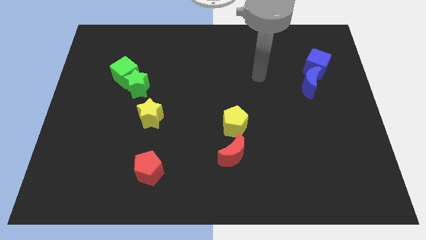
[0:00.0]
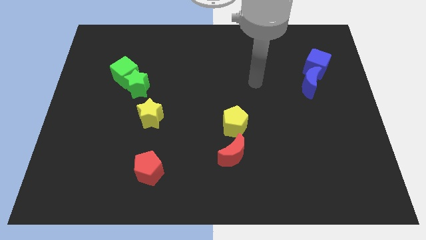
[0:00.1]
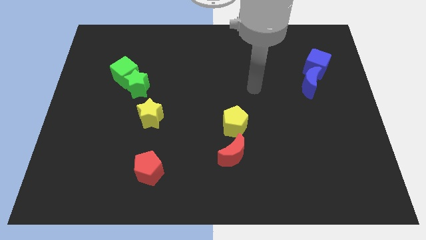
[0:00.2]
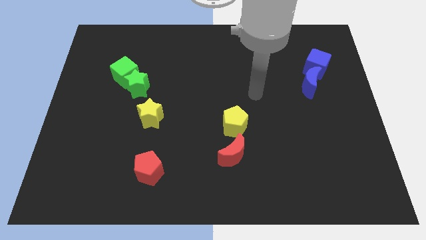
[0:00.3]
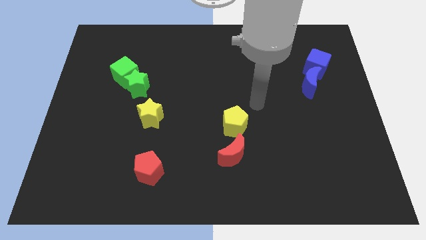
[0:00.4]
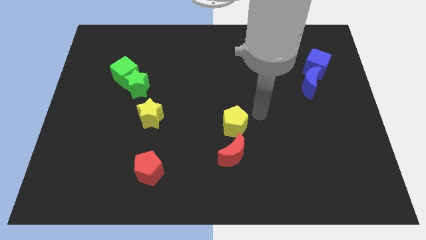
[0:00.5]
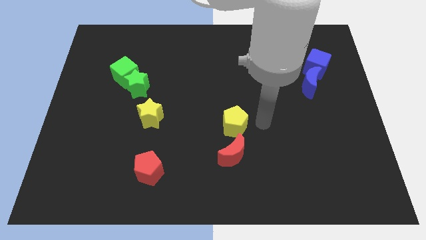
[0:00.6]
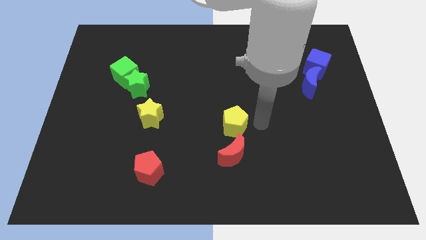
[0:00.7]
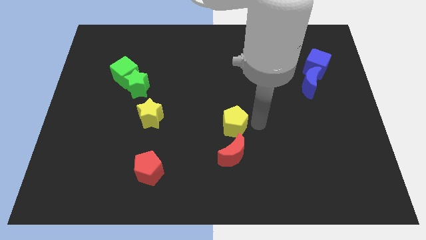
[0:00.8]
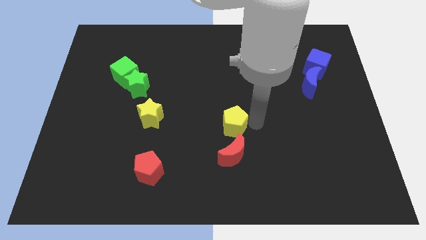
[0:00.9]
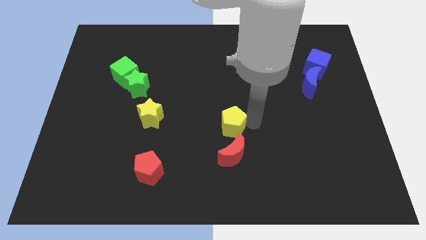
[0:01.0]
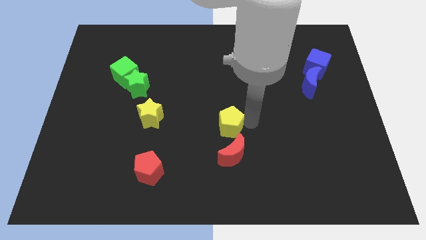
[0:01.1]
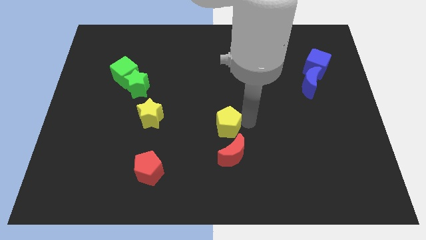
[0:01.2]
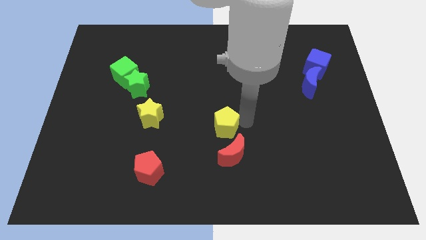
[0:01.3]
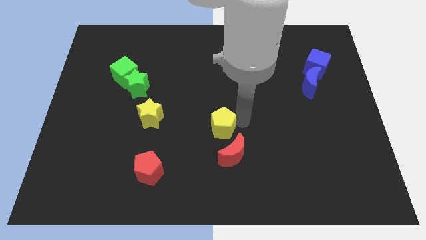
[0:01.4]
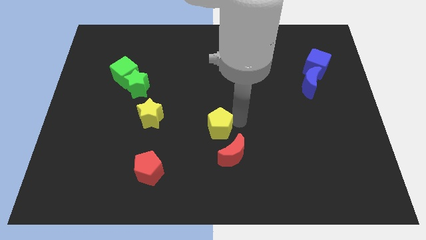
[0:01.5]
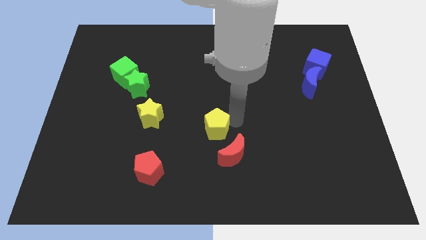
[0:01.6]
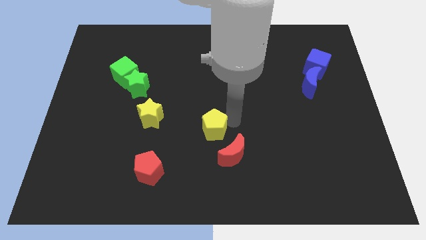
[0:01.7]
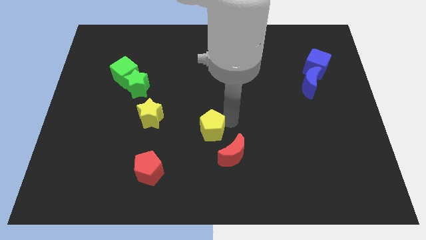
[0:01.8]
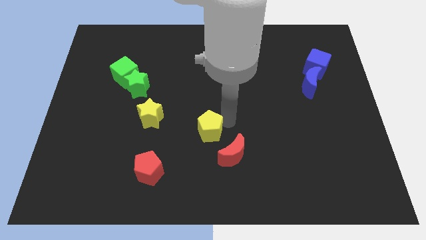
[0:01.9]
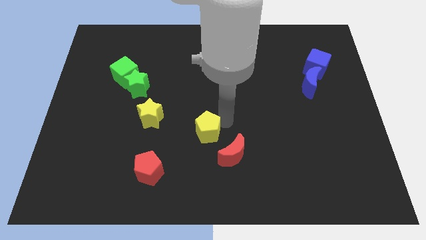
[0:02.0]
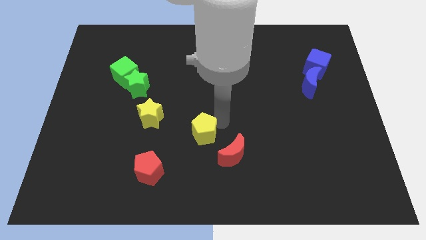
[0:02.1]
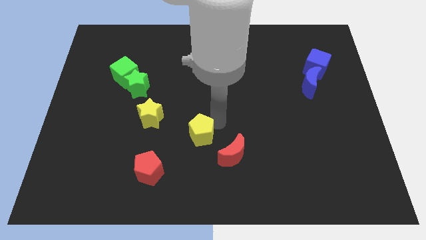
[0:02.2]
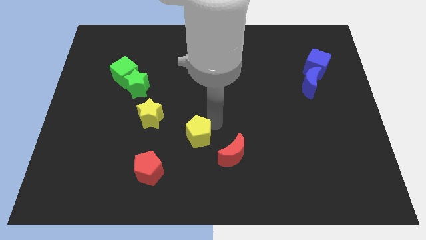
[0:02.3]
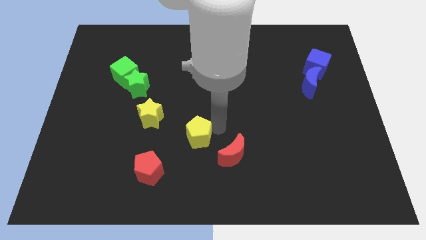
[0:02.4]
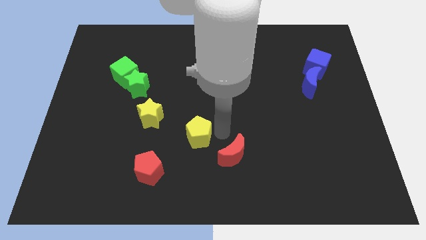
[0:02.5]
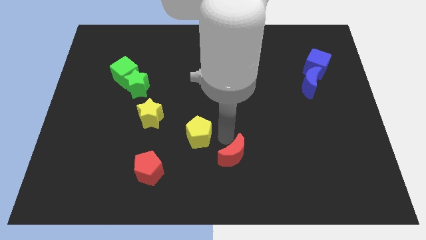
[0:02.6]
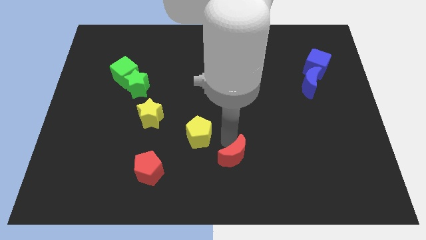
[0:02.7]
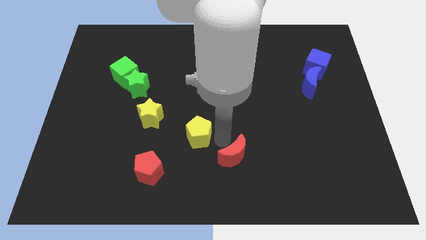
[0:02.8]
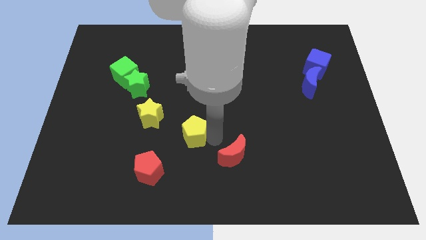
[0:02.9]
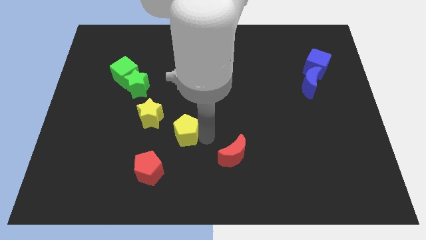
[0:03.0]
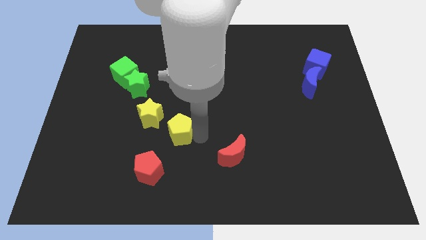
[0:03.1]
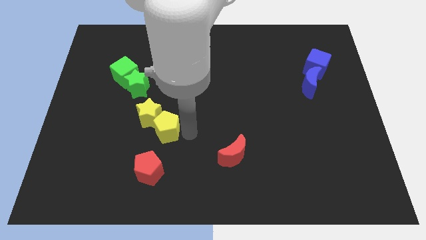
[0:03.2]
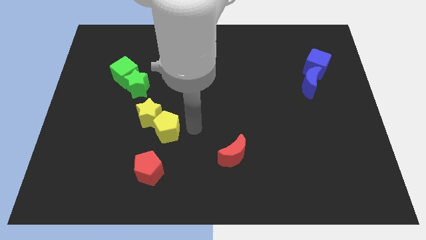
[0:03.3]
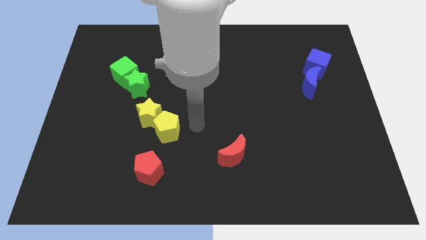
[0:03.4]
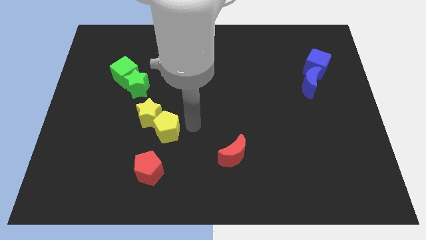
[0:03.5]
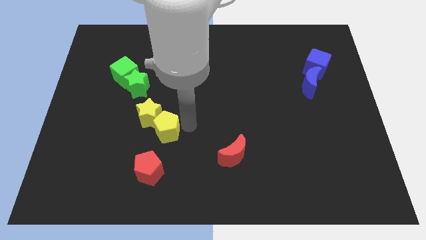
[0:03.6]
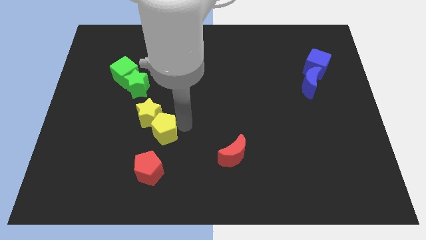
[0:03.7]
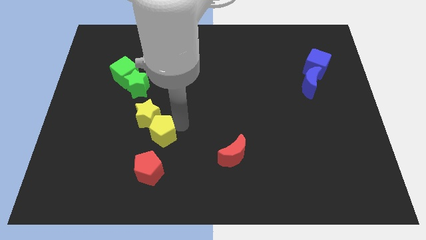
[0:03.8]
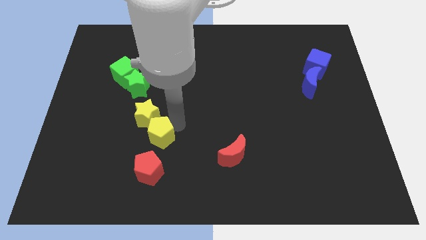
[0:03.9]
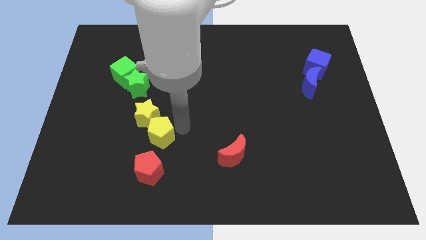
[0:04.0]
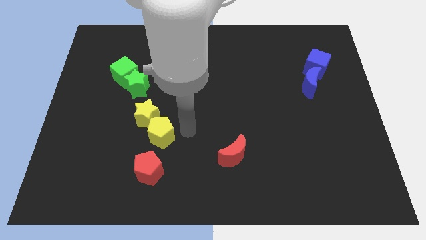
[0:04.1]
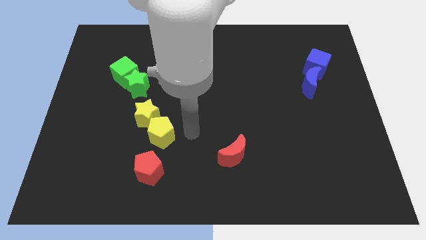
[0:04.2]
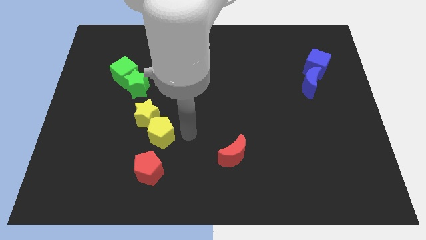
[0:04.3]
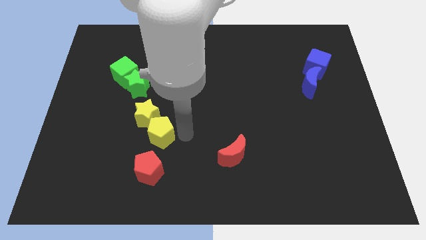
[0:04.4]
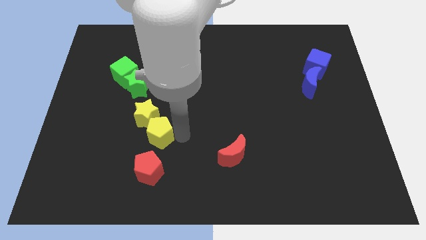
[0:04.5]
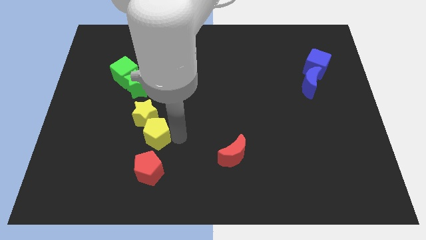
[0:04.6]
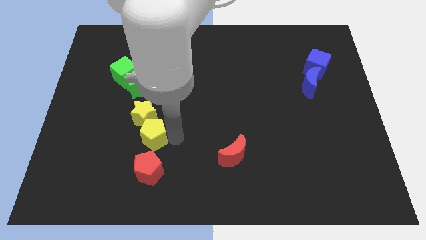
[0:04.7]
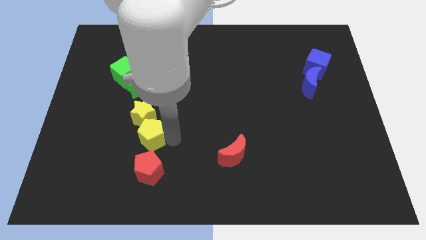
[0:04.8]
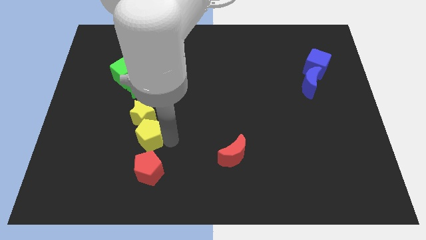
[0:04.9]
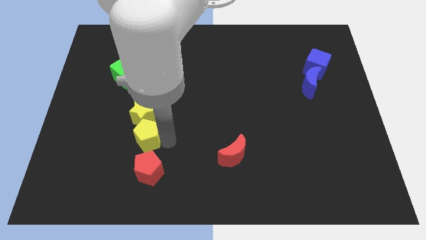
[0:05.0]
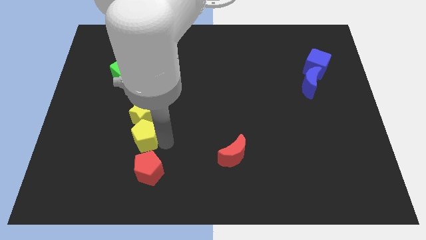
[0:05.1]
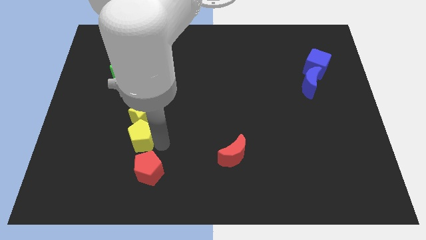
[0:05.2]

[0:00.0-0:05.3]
push the yellow pentagon left

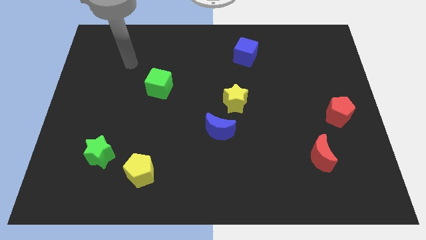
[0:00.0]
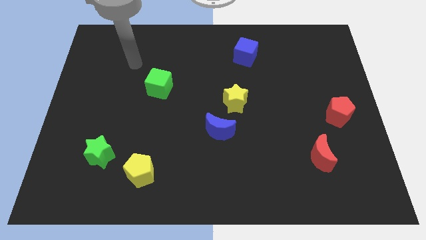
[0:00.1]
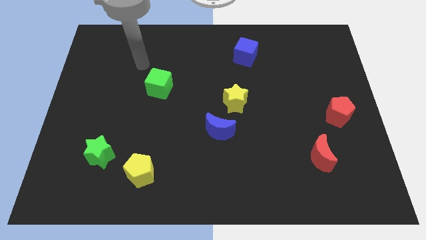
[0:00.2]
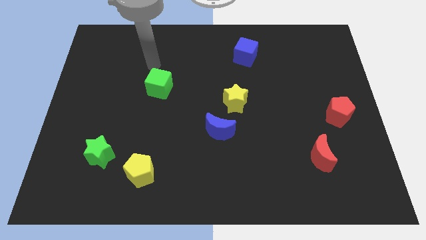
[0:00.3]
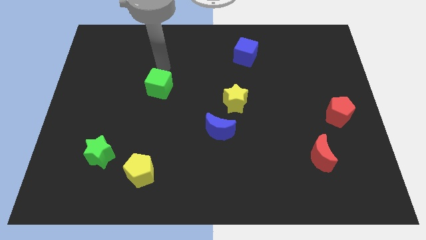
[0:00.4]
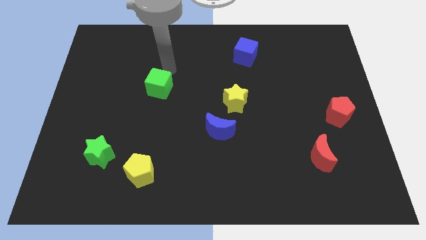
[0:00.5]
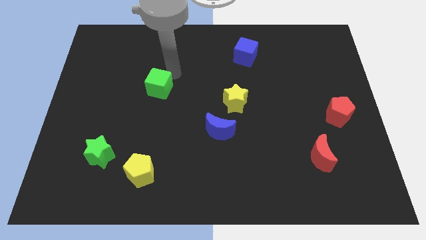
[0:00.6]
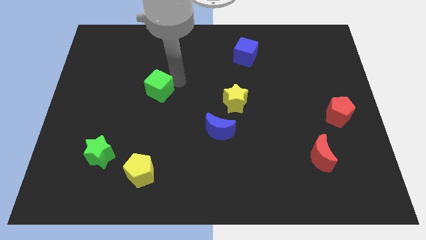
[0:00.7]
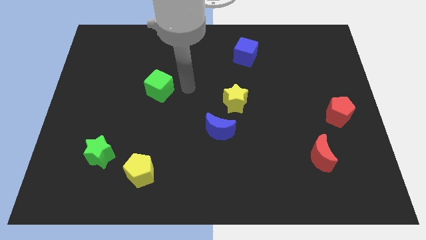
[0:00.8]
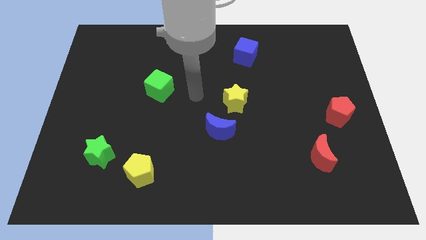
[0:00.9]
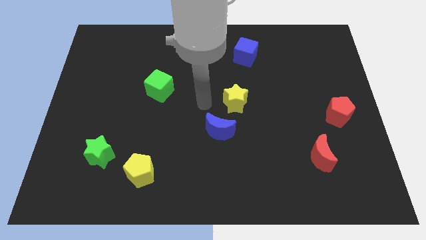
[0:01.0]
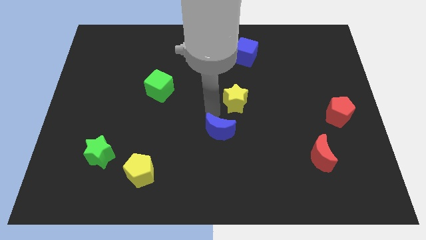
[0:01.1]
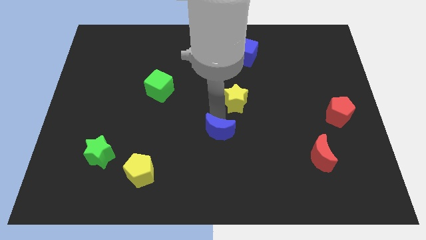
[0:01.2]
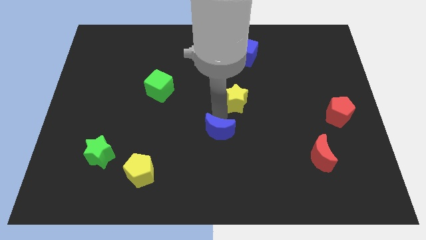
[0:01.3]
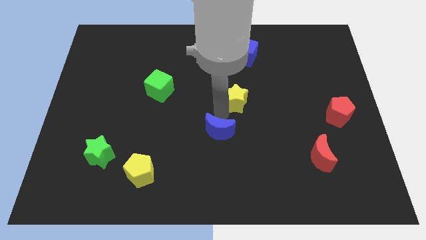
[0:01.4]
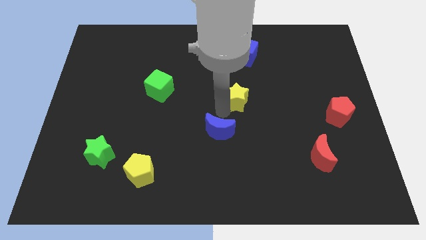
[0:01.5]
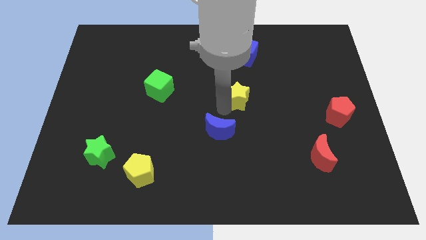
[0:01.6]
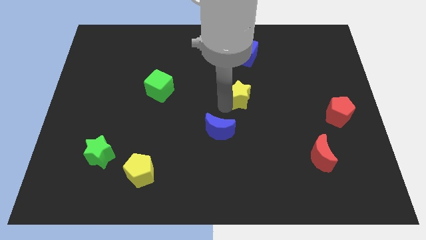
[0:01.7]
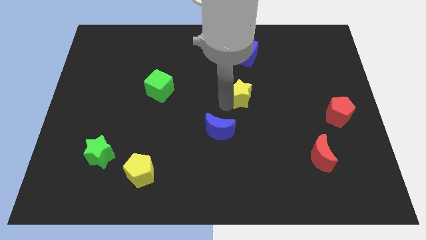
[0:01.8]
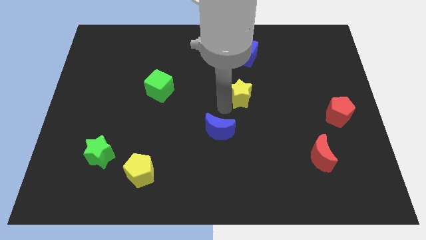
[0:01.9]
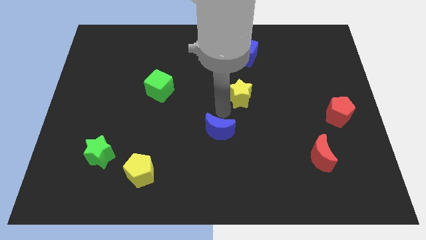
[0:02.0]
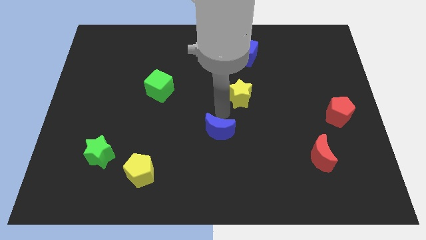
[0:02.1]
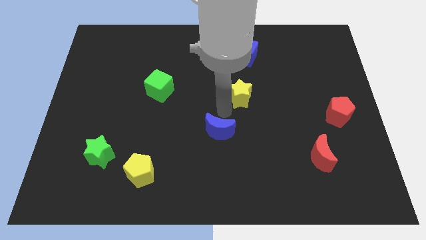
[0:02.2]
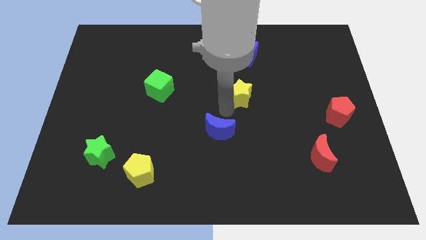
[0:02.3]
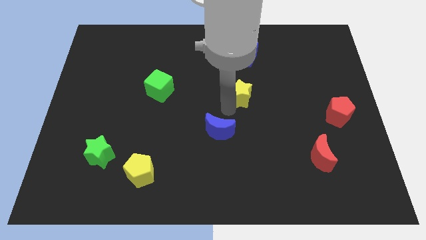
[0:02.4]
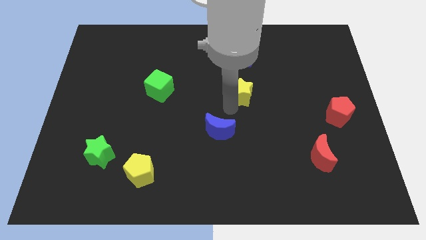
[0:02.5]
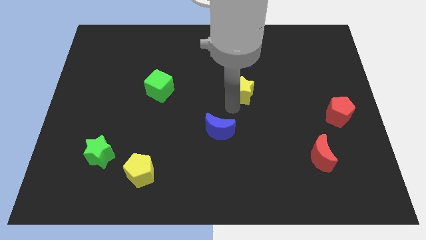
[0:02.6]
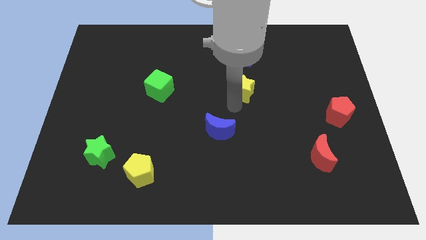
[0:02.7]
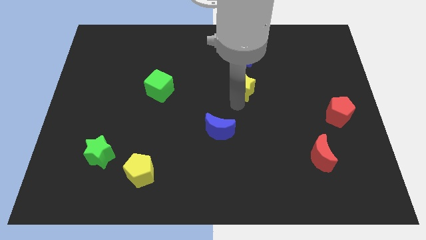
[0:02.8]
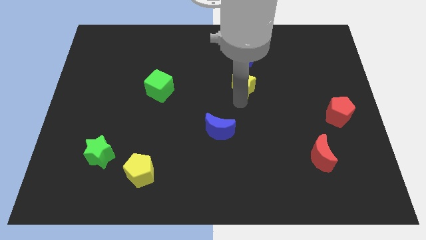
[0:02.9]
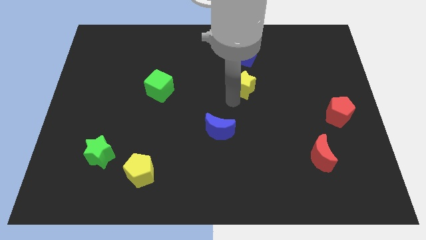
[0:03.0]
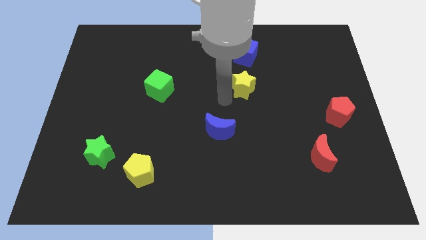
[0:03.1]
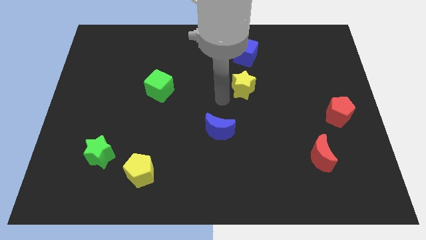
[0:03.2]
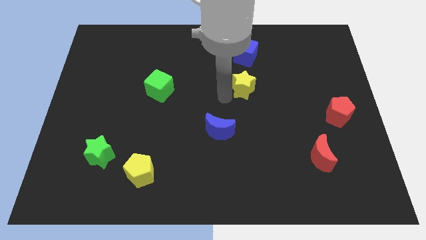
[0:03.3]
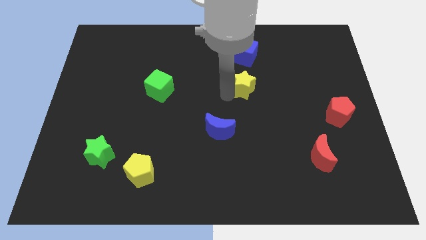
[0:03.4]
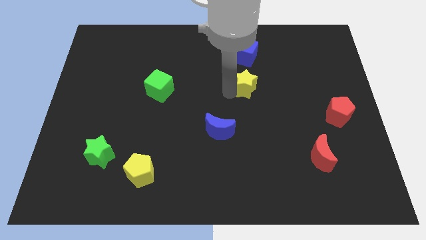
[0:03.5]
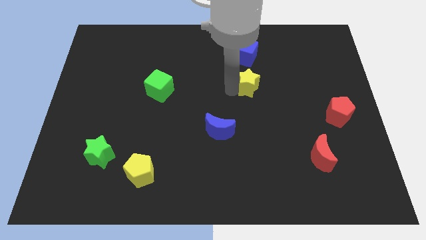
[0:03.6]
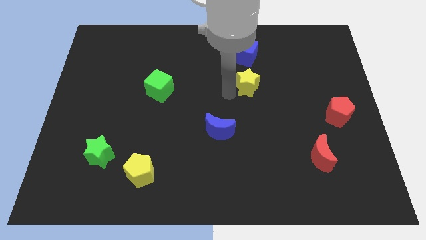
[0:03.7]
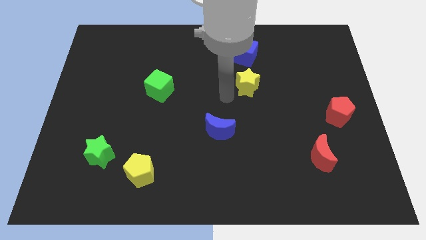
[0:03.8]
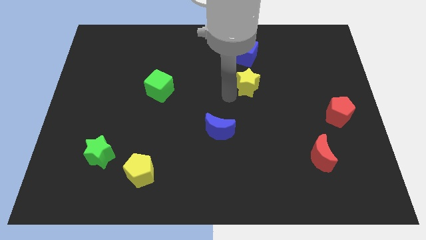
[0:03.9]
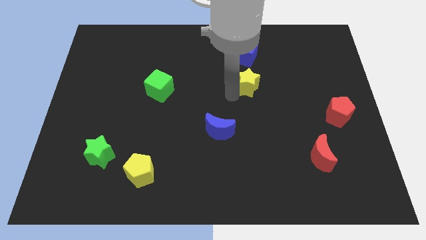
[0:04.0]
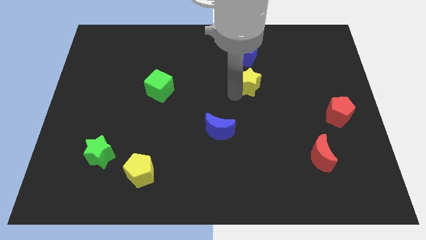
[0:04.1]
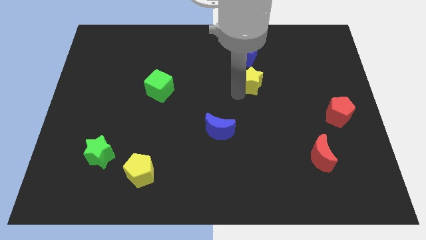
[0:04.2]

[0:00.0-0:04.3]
slightly move the yellow star upwards and then to the right
